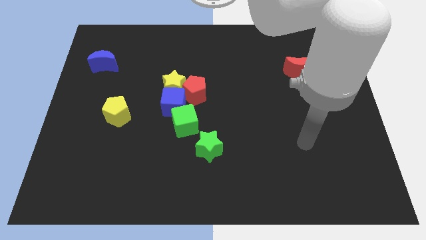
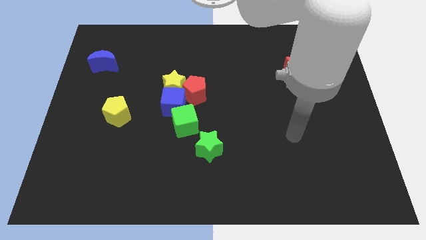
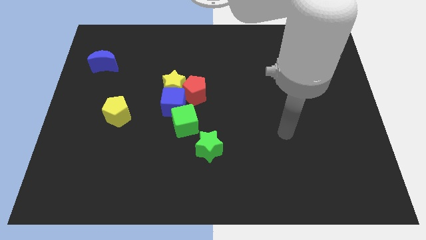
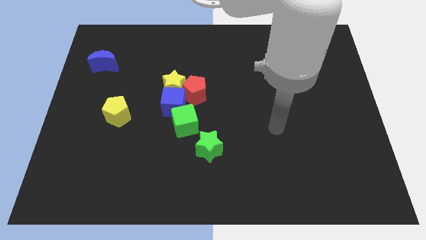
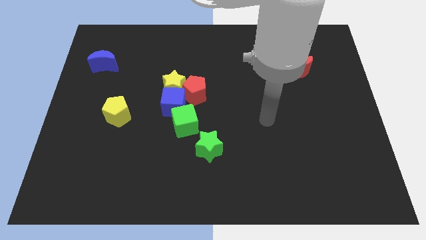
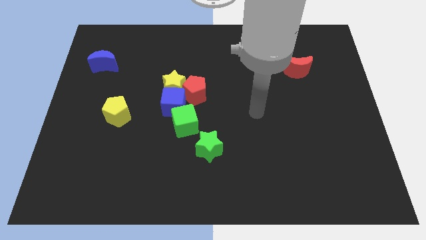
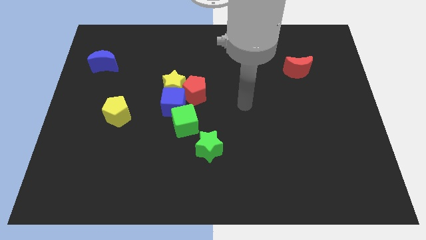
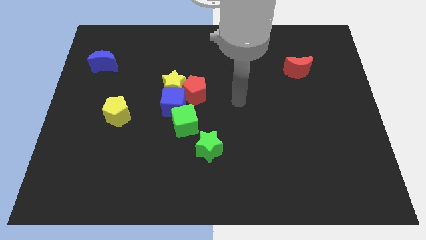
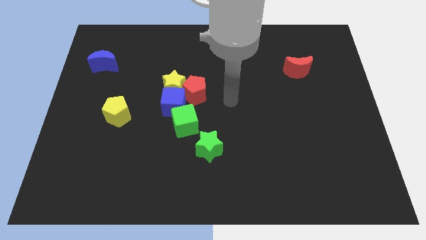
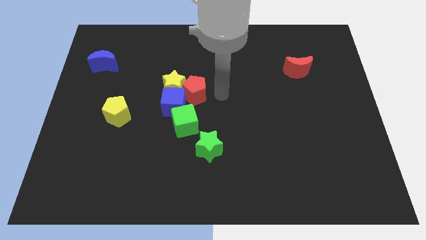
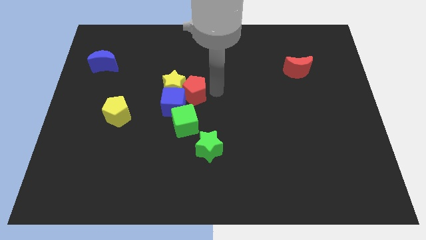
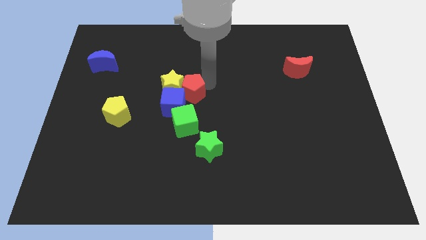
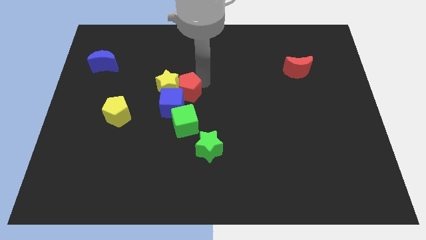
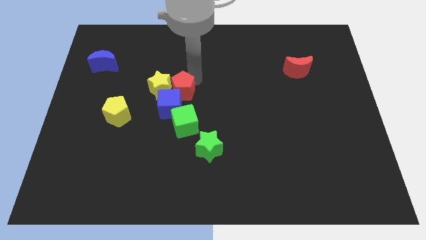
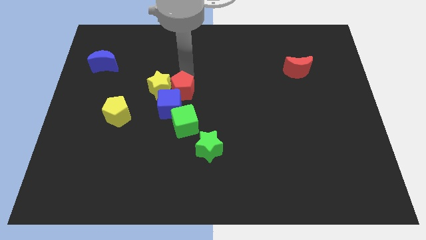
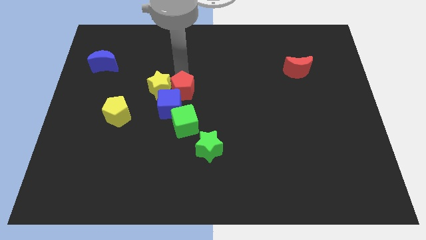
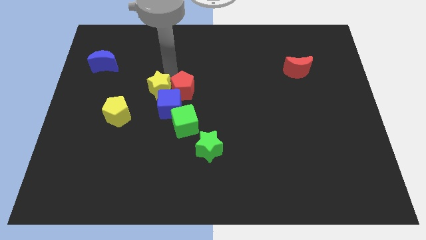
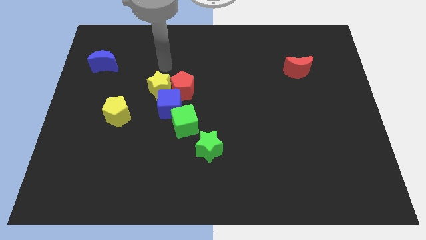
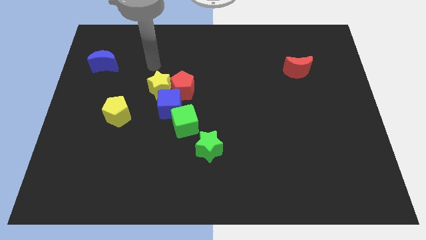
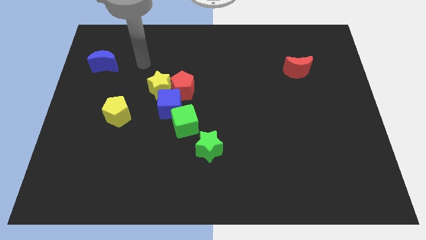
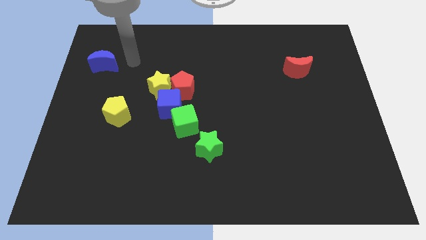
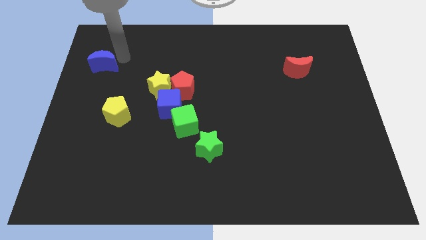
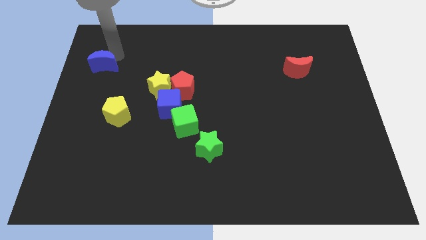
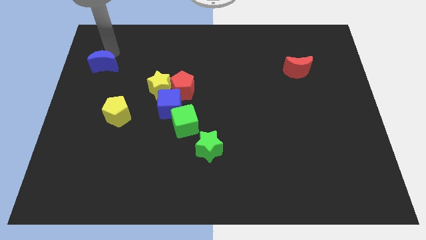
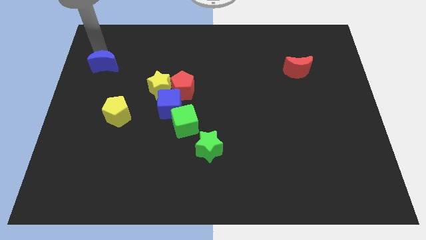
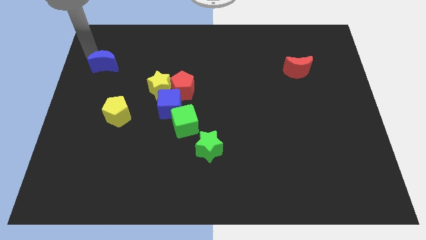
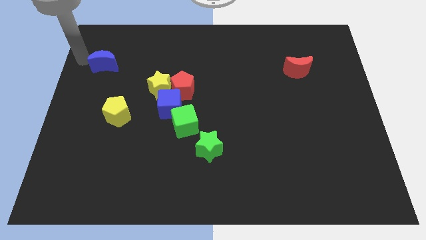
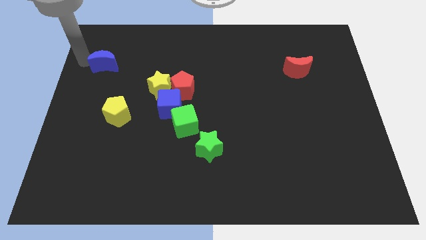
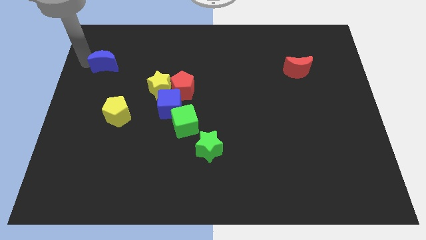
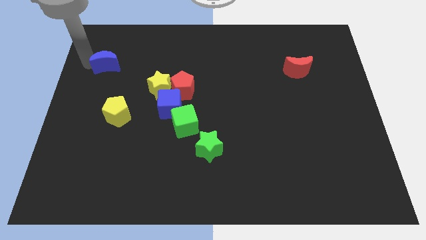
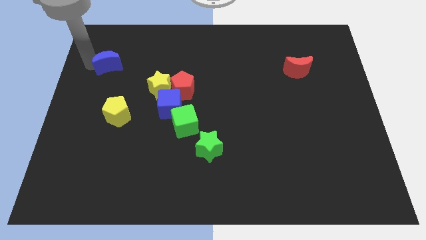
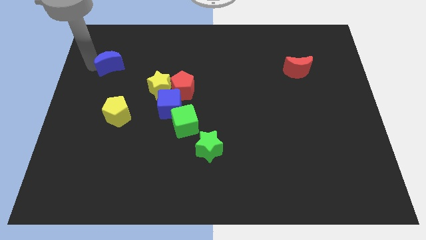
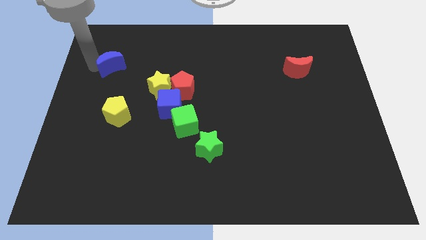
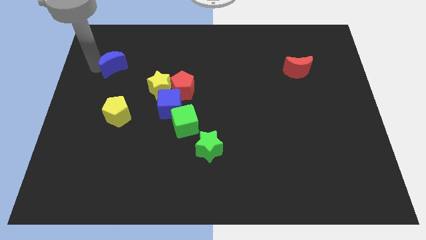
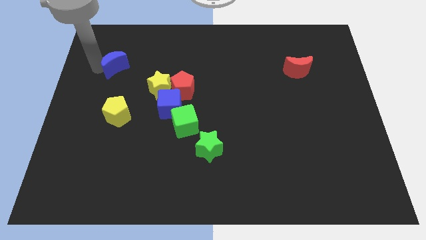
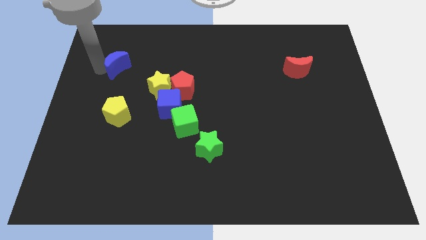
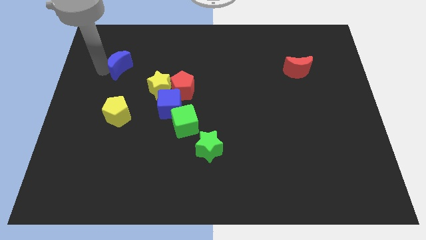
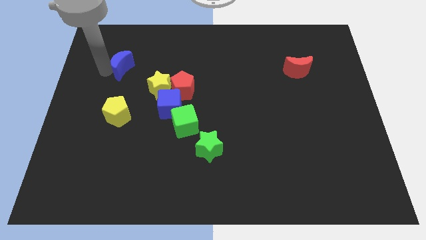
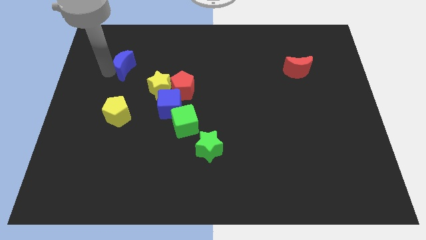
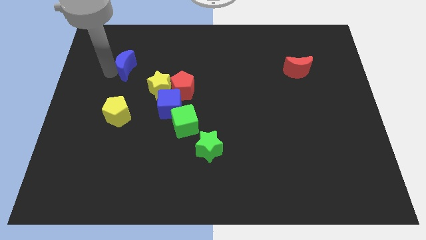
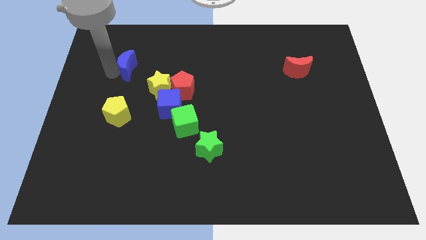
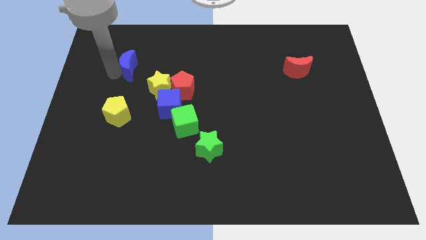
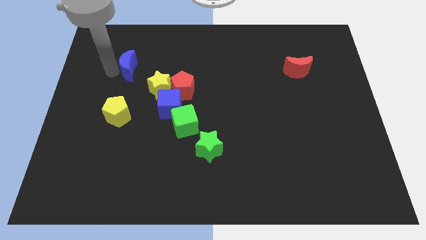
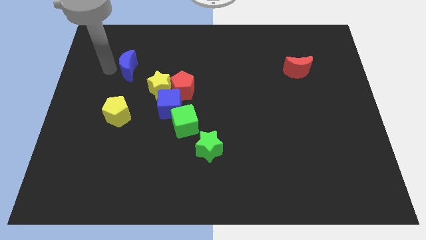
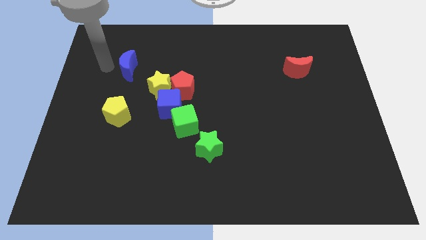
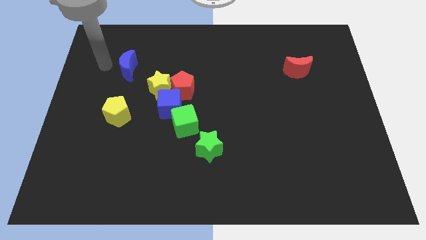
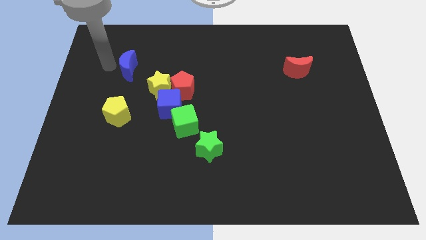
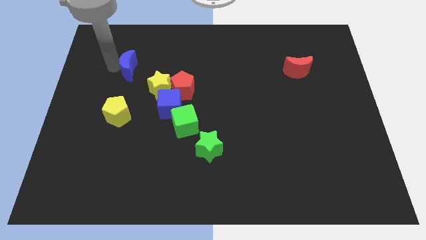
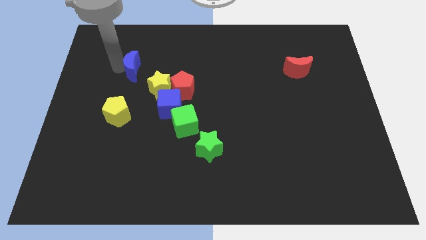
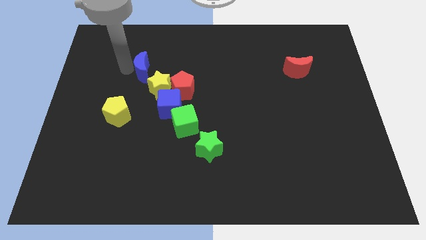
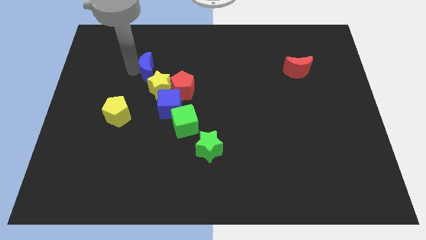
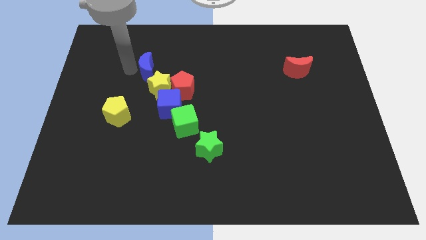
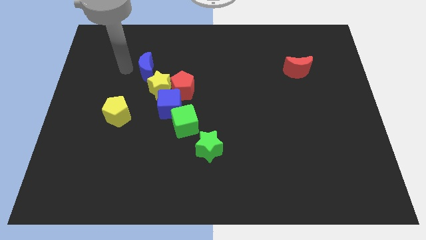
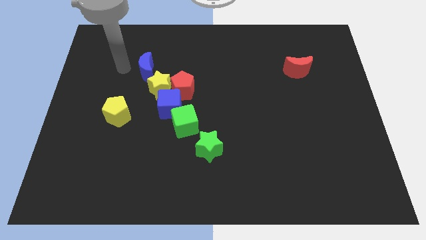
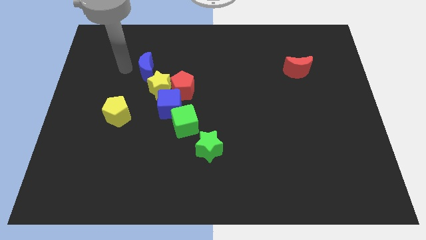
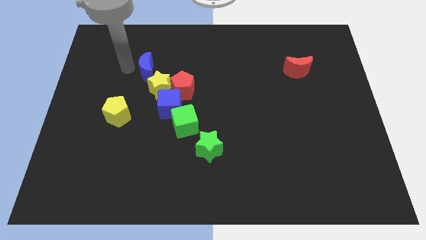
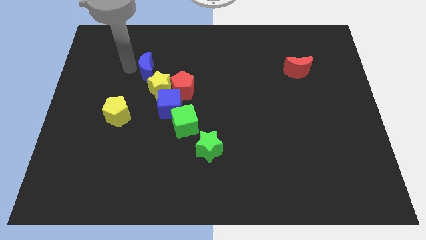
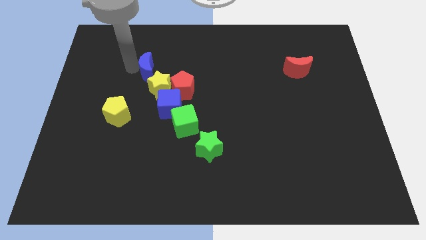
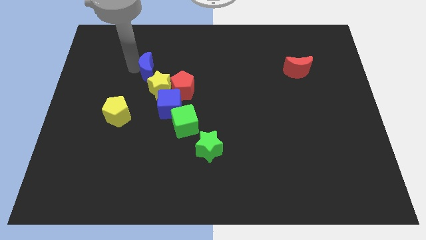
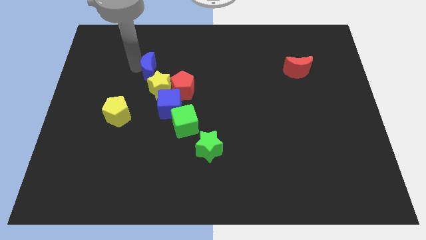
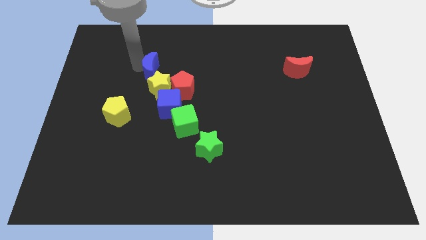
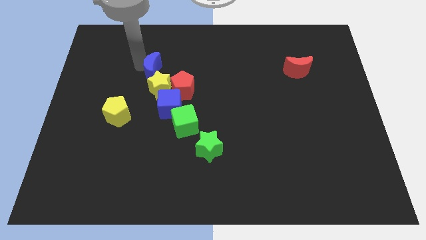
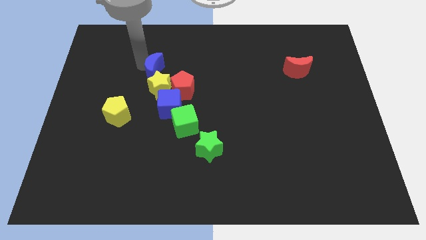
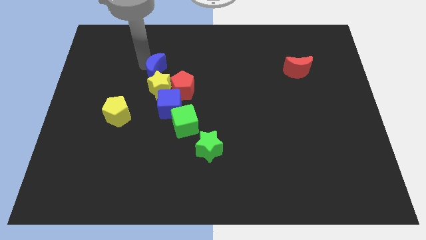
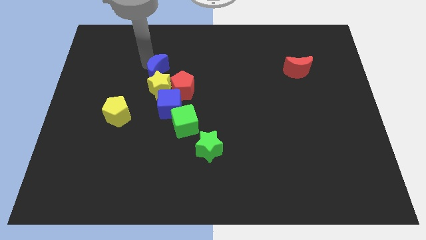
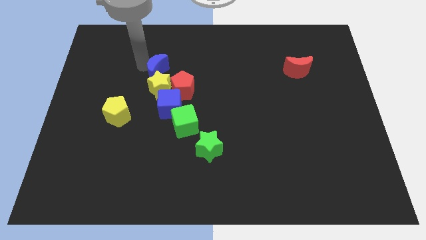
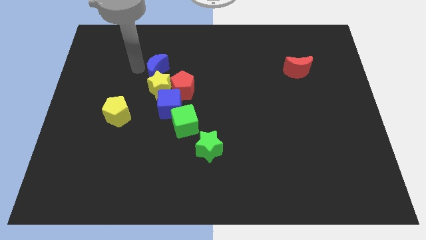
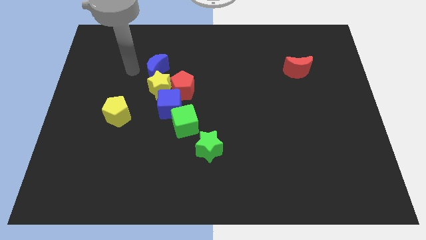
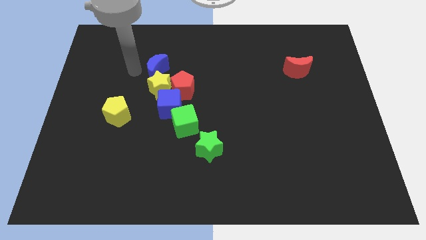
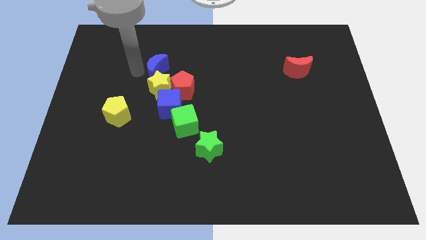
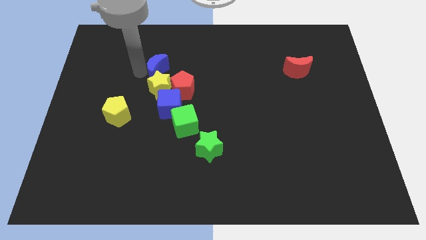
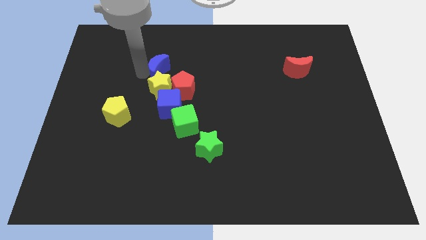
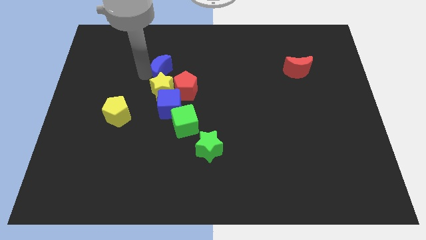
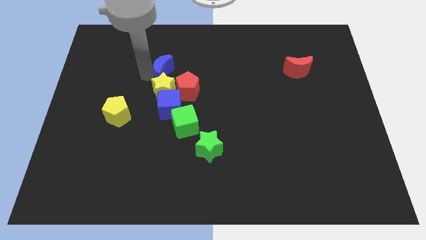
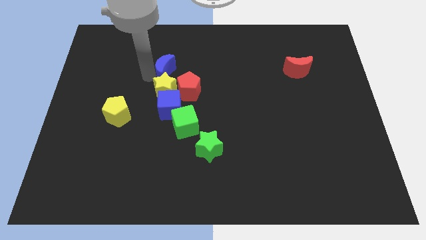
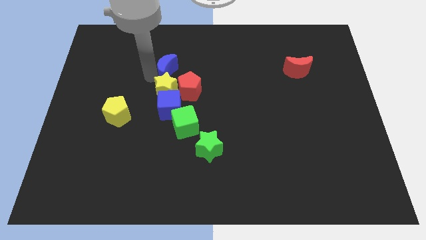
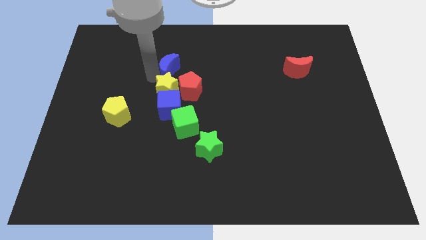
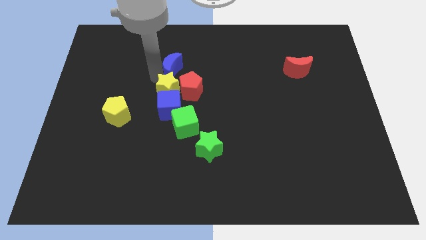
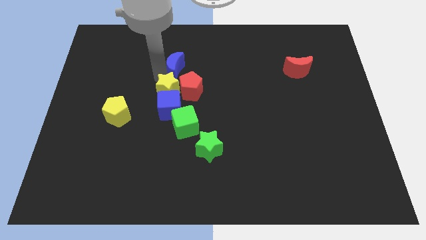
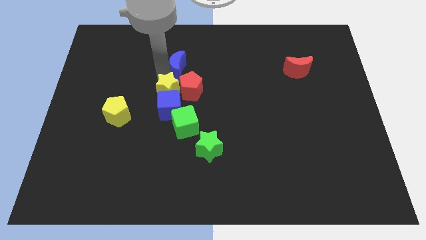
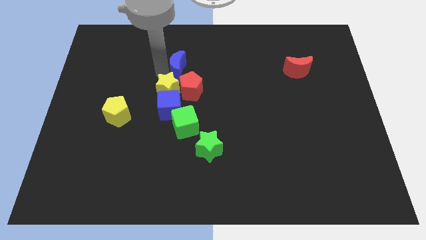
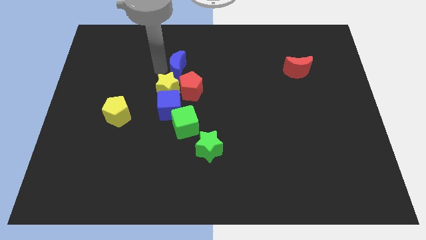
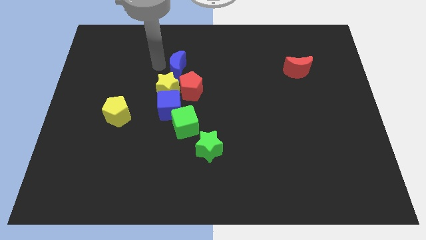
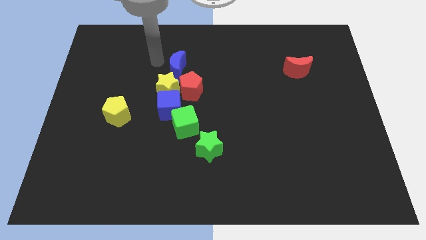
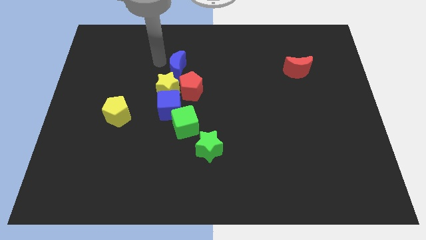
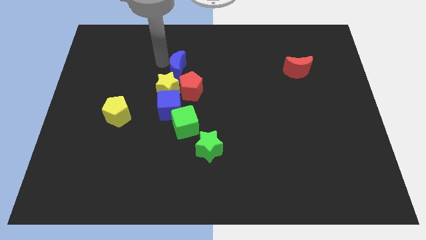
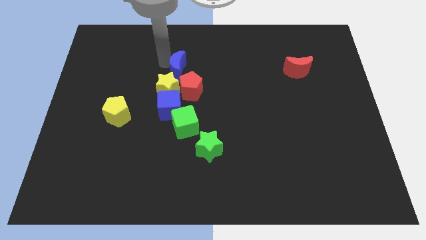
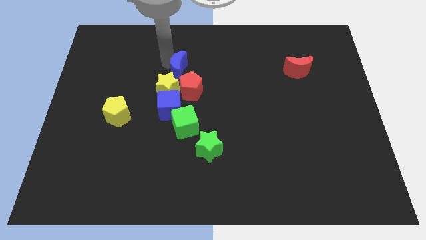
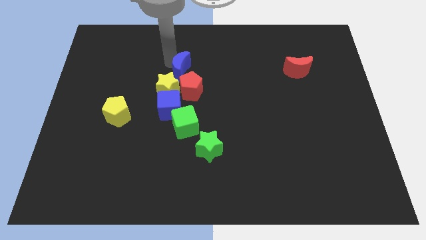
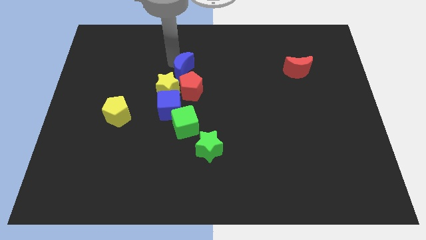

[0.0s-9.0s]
move the blue moon to the middle of the board
